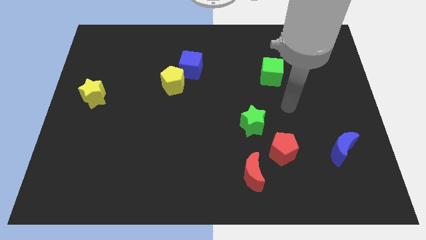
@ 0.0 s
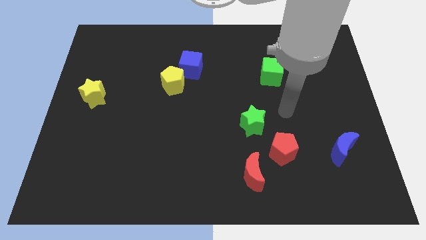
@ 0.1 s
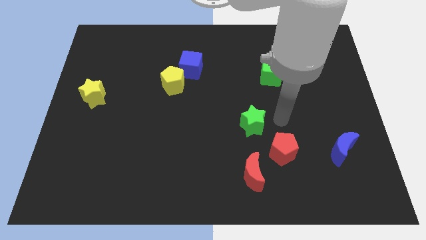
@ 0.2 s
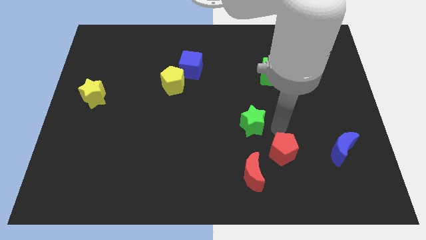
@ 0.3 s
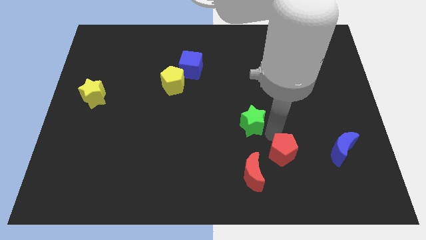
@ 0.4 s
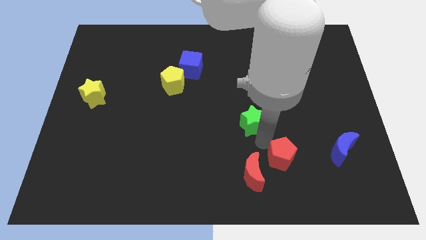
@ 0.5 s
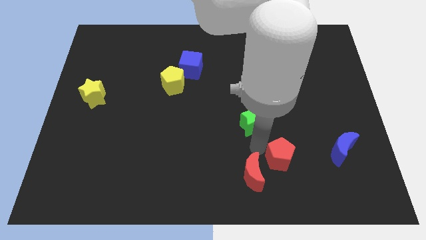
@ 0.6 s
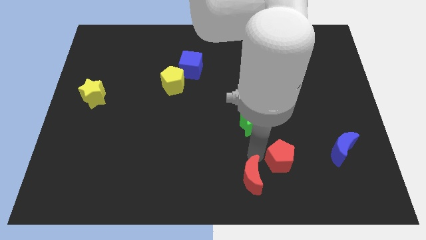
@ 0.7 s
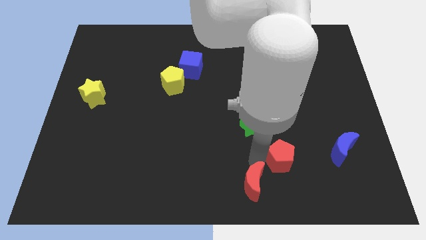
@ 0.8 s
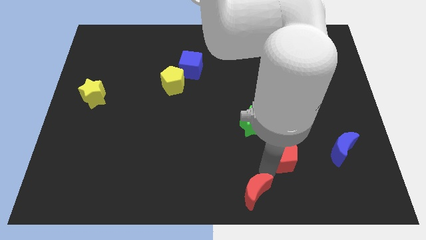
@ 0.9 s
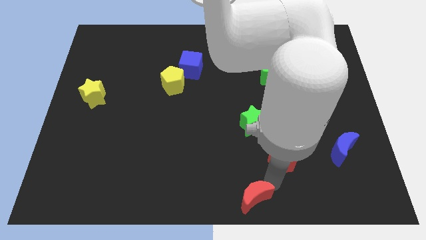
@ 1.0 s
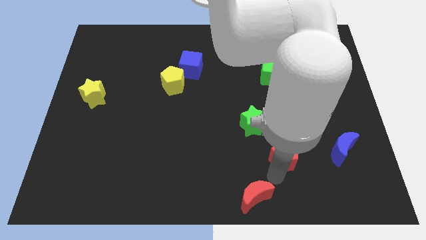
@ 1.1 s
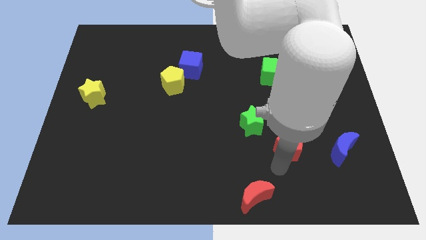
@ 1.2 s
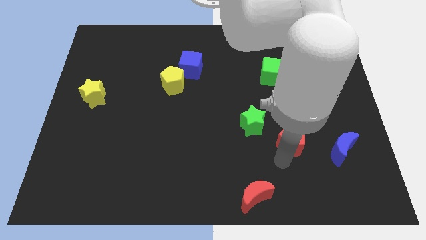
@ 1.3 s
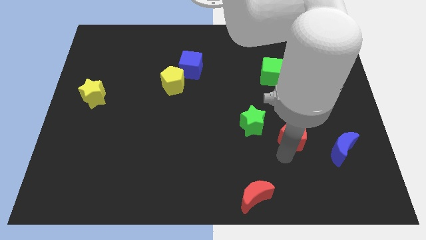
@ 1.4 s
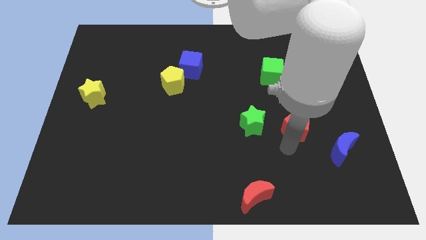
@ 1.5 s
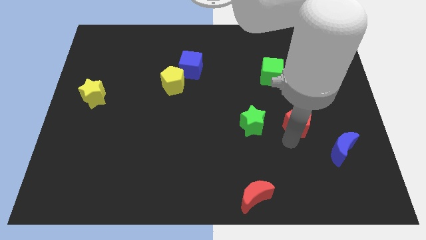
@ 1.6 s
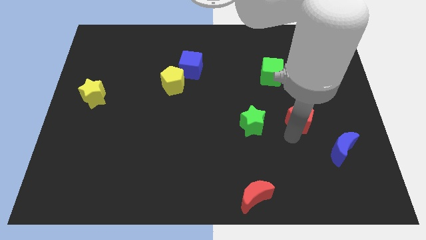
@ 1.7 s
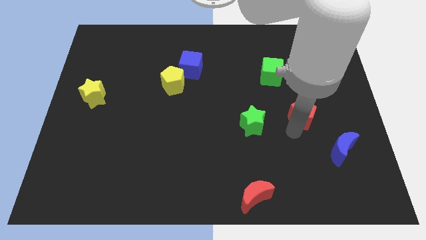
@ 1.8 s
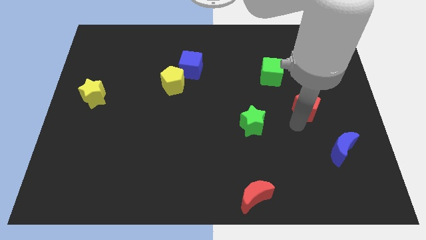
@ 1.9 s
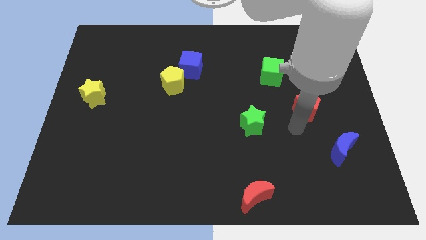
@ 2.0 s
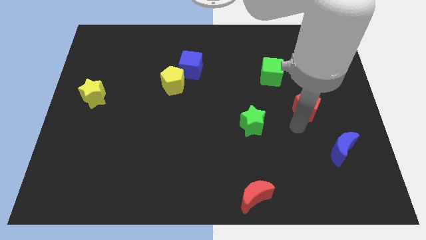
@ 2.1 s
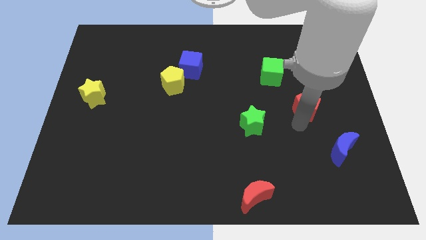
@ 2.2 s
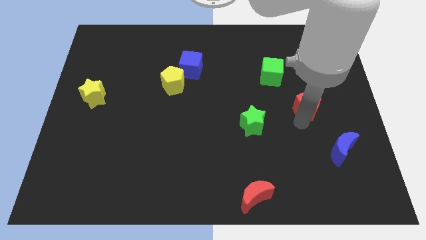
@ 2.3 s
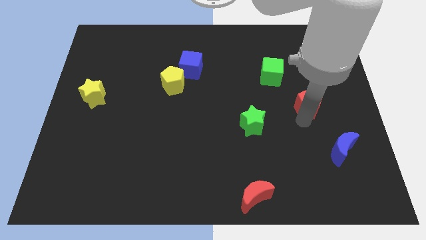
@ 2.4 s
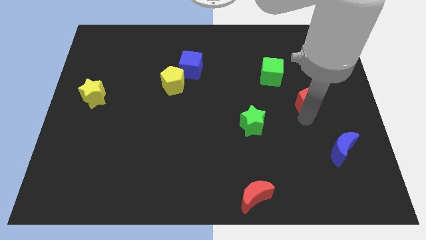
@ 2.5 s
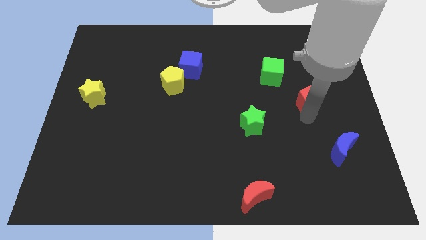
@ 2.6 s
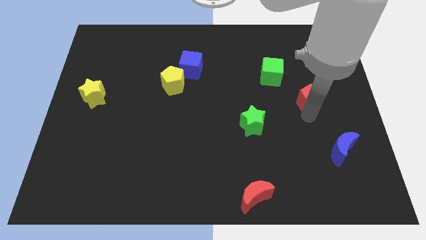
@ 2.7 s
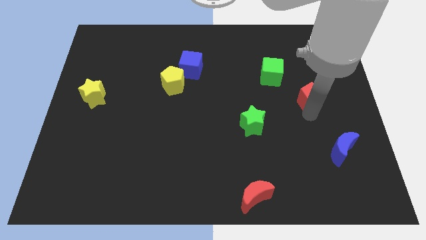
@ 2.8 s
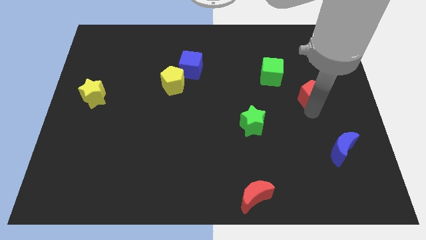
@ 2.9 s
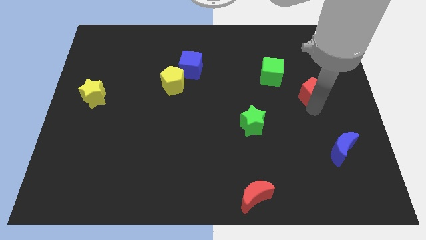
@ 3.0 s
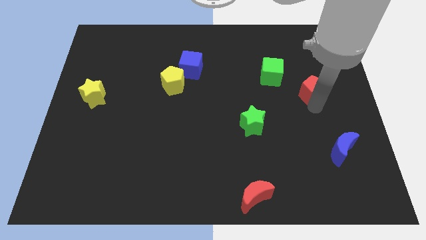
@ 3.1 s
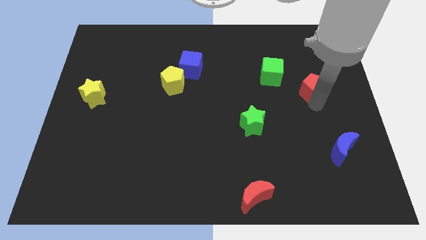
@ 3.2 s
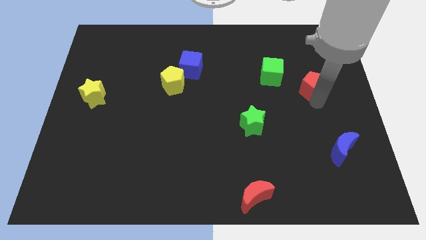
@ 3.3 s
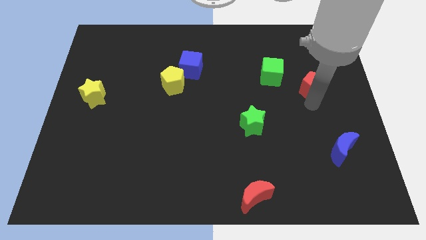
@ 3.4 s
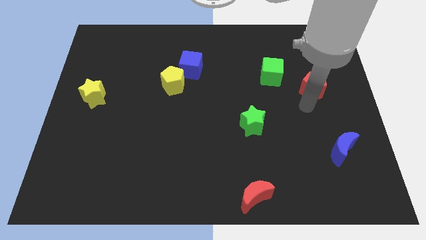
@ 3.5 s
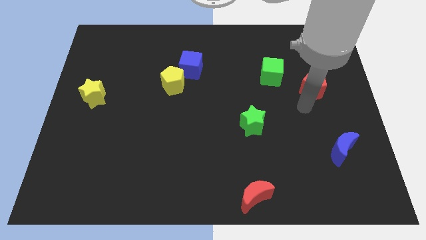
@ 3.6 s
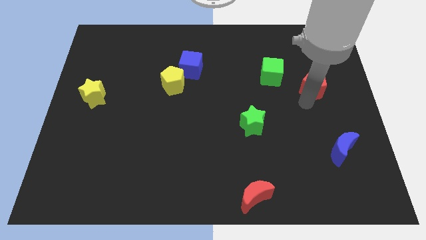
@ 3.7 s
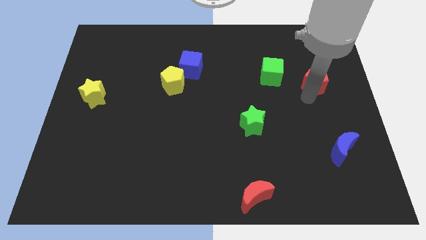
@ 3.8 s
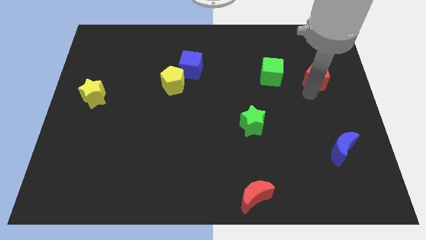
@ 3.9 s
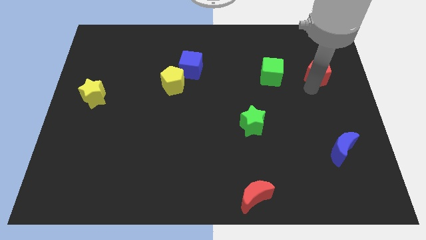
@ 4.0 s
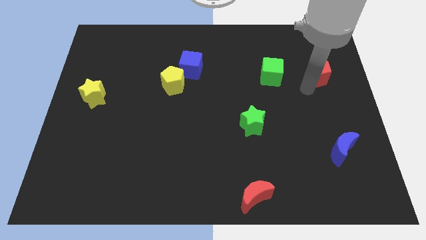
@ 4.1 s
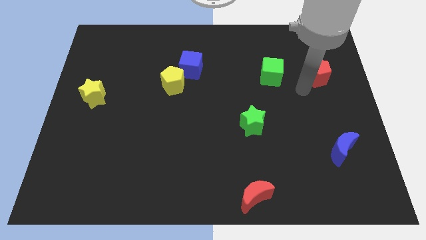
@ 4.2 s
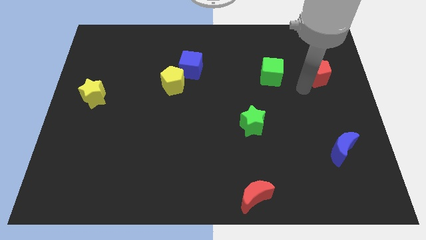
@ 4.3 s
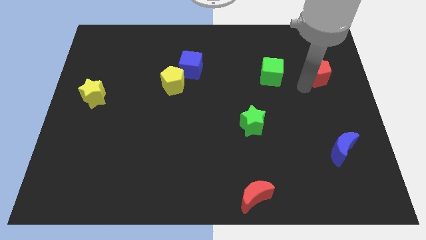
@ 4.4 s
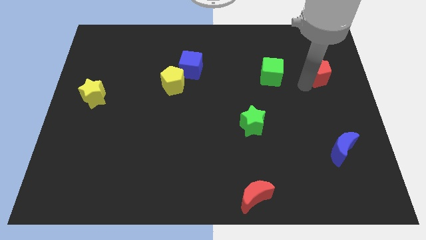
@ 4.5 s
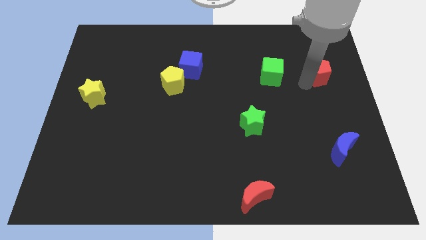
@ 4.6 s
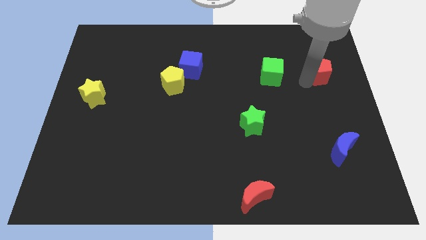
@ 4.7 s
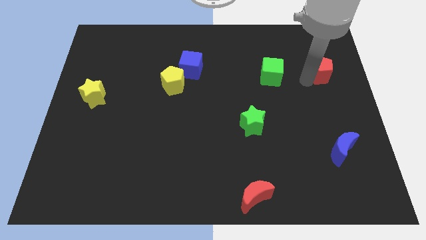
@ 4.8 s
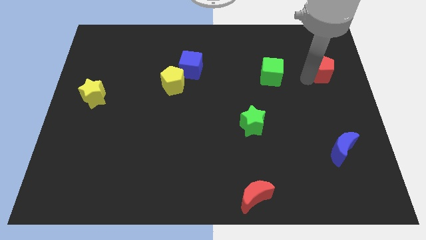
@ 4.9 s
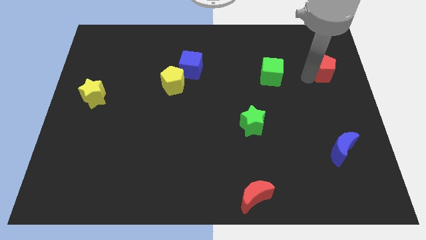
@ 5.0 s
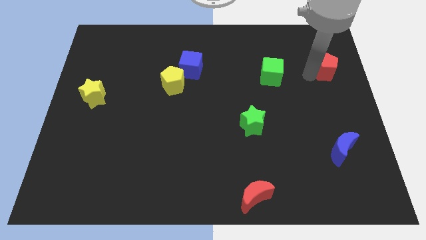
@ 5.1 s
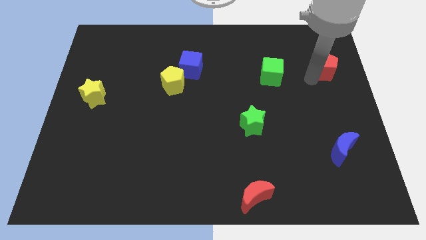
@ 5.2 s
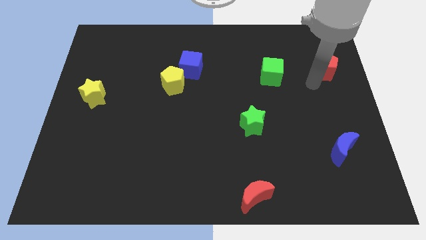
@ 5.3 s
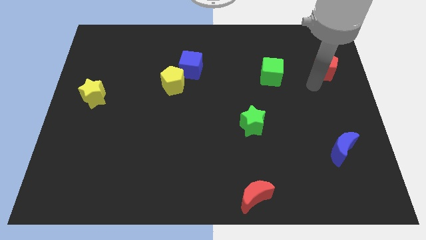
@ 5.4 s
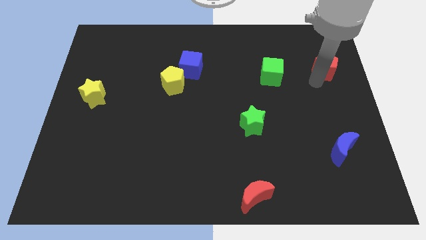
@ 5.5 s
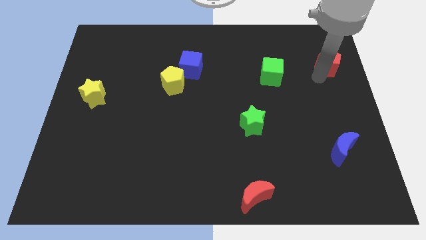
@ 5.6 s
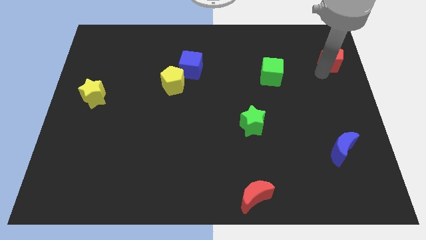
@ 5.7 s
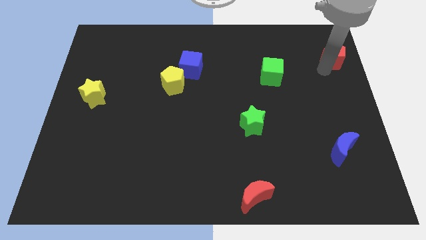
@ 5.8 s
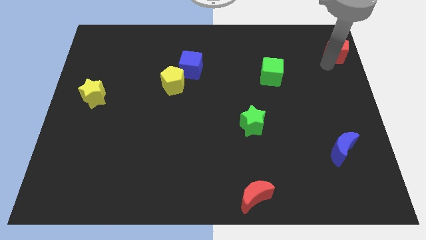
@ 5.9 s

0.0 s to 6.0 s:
move the red pentagon to the top right of the board
